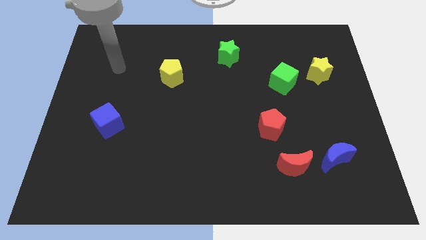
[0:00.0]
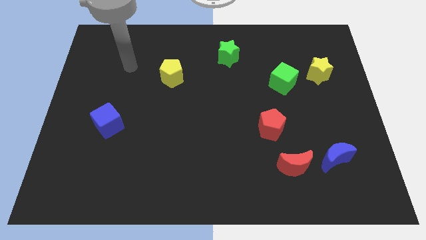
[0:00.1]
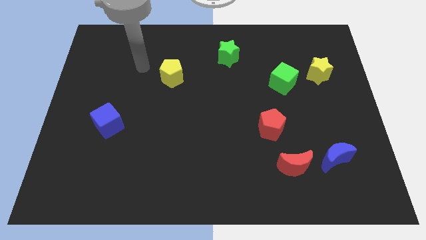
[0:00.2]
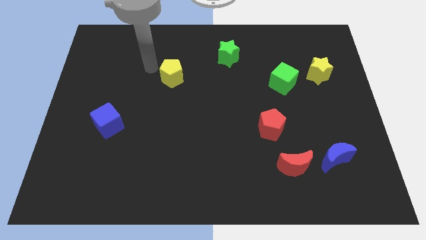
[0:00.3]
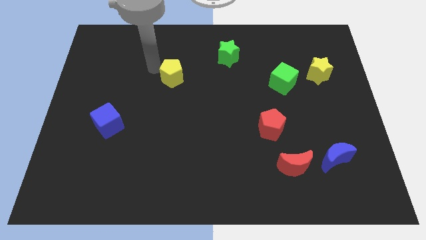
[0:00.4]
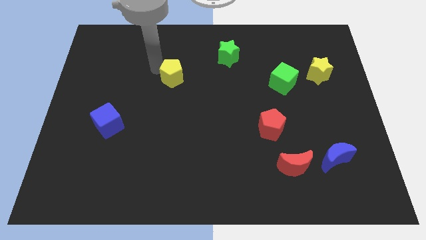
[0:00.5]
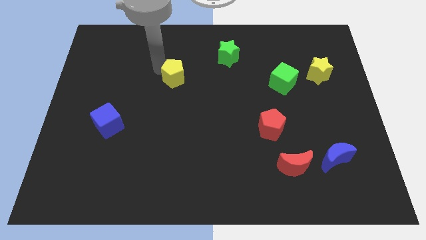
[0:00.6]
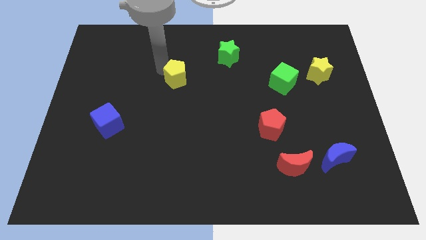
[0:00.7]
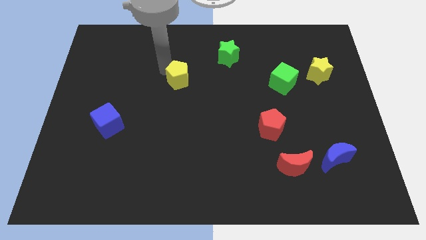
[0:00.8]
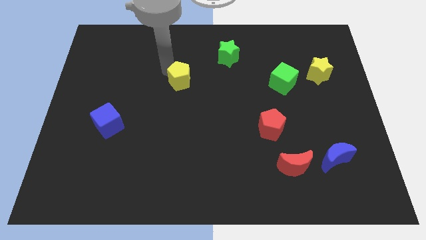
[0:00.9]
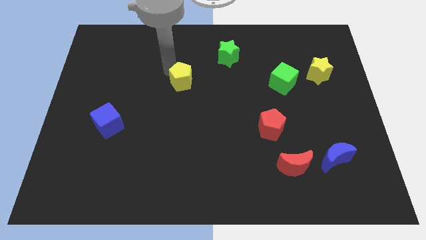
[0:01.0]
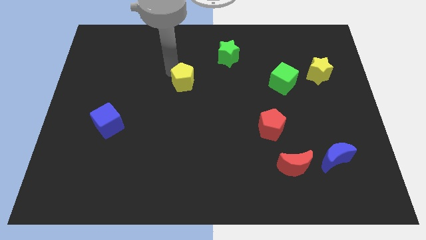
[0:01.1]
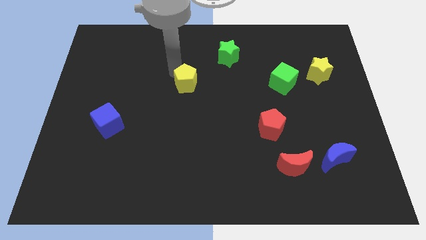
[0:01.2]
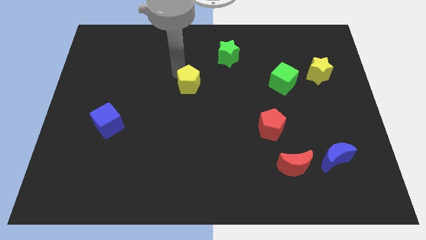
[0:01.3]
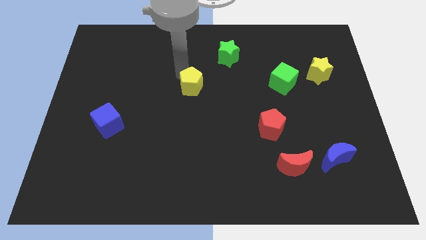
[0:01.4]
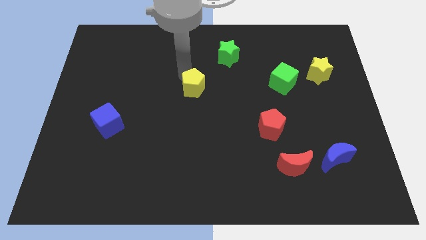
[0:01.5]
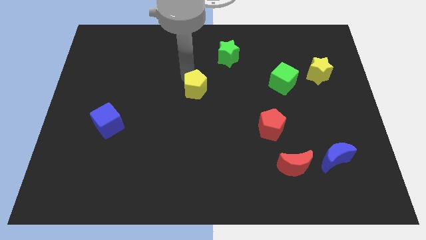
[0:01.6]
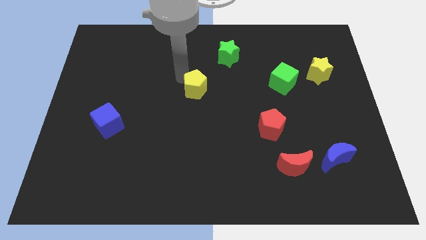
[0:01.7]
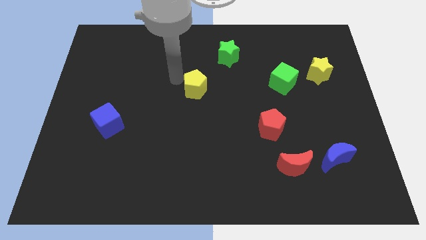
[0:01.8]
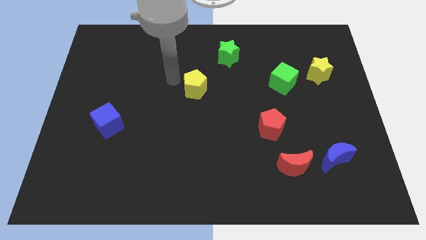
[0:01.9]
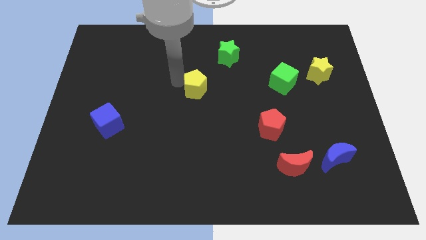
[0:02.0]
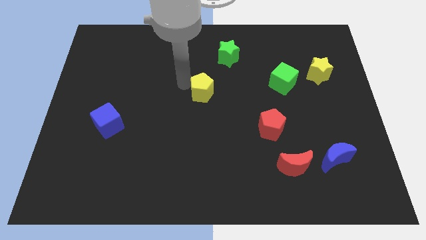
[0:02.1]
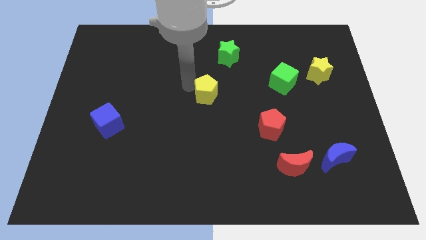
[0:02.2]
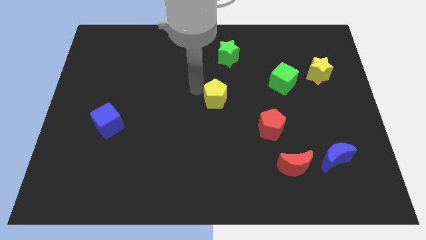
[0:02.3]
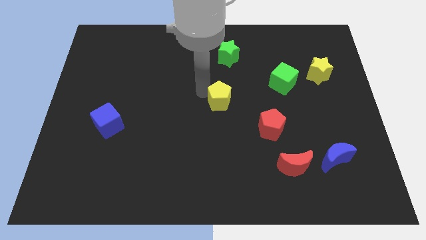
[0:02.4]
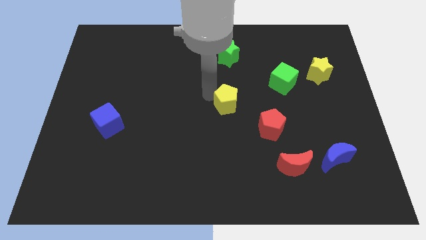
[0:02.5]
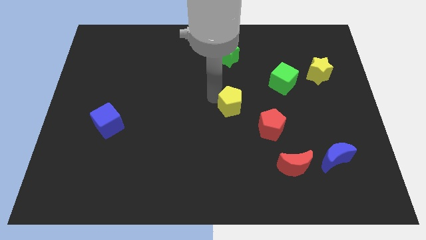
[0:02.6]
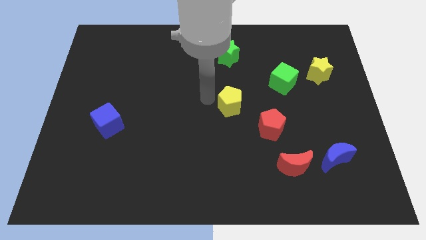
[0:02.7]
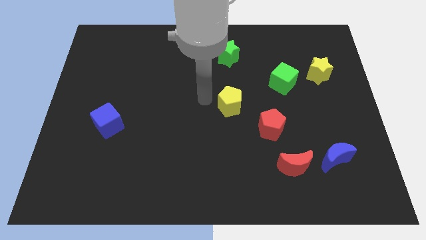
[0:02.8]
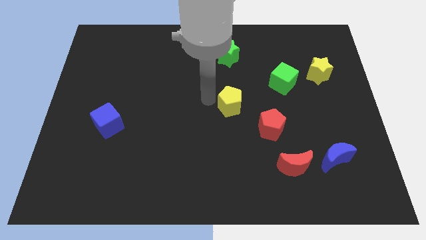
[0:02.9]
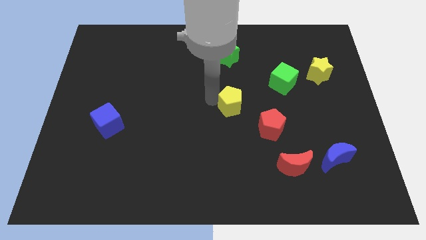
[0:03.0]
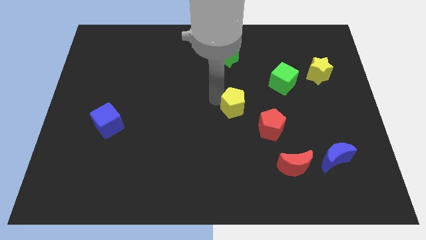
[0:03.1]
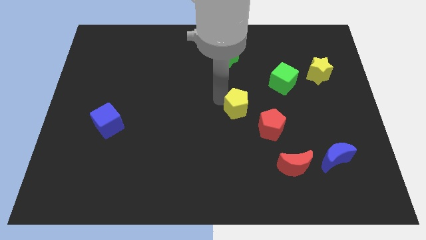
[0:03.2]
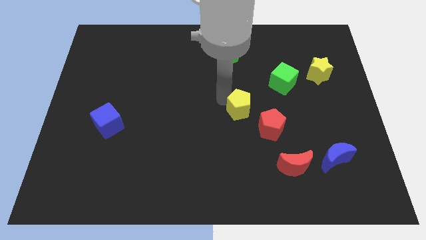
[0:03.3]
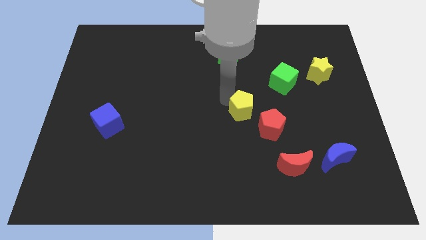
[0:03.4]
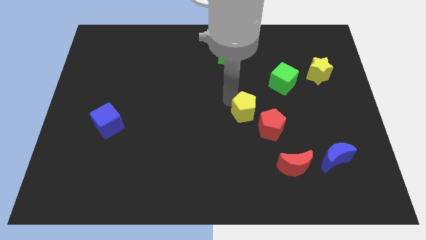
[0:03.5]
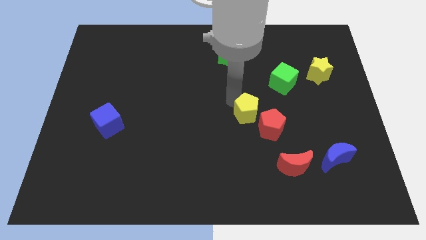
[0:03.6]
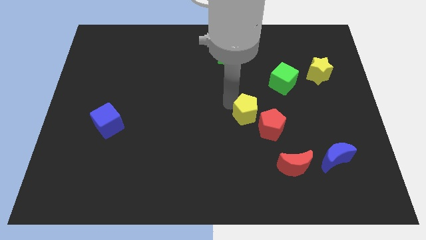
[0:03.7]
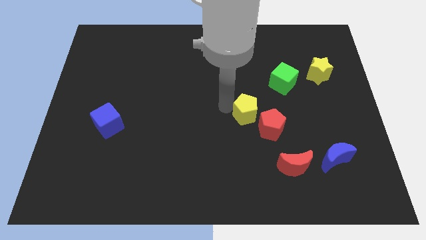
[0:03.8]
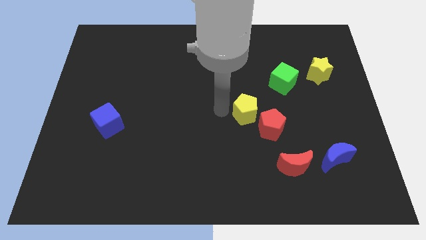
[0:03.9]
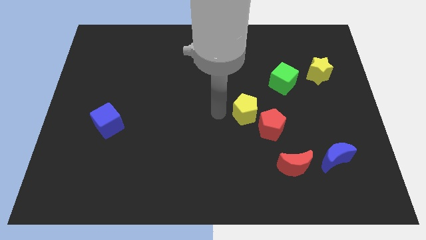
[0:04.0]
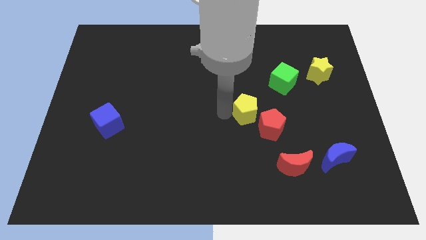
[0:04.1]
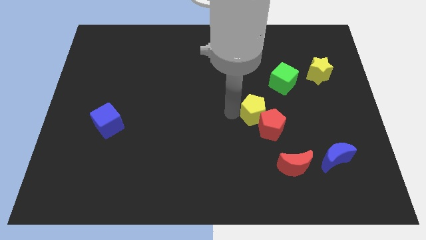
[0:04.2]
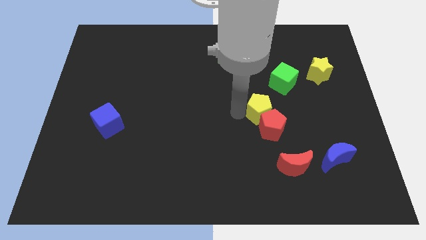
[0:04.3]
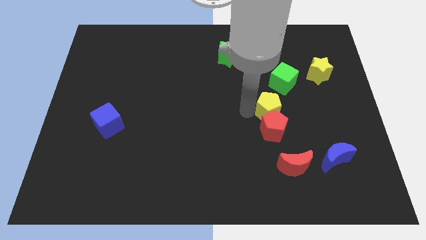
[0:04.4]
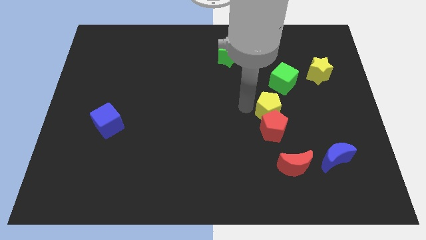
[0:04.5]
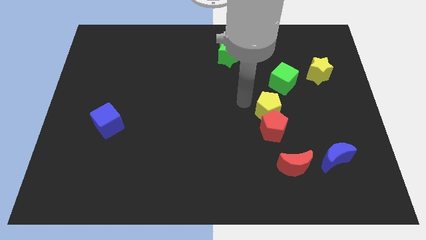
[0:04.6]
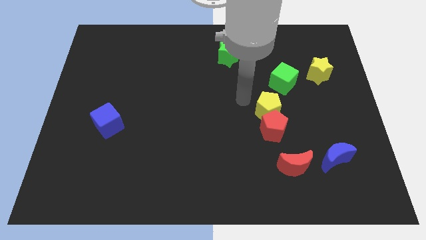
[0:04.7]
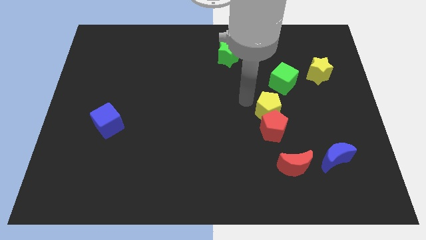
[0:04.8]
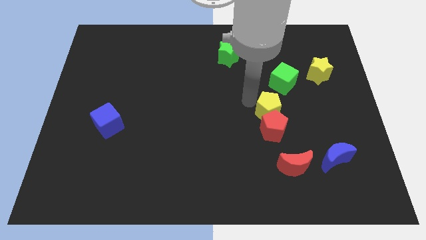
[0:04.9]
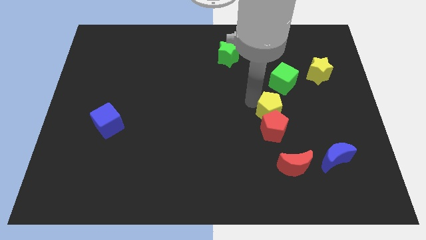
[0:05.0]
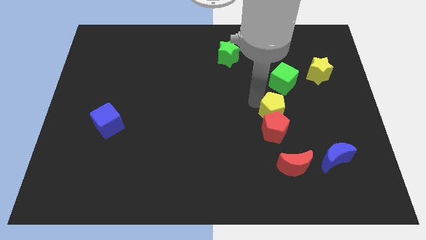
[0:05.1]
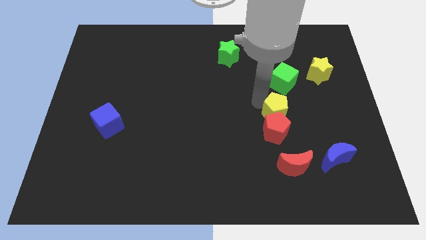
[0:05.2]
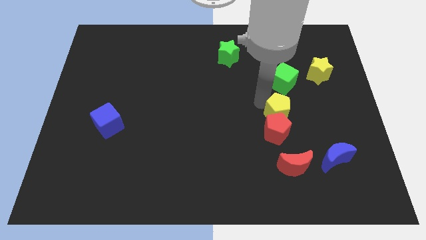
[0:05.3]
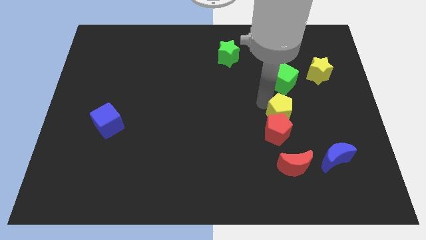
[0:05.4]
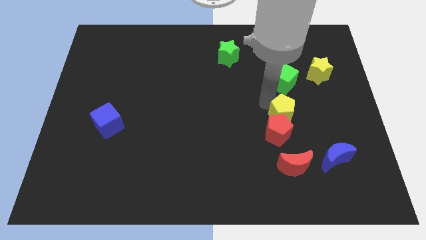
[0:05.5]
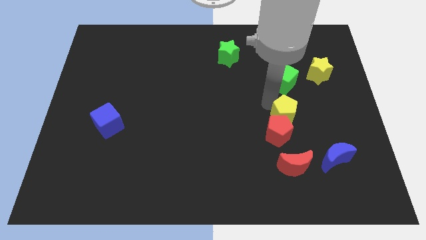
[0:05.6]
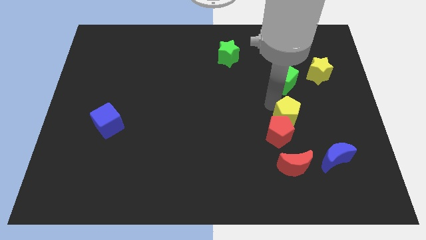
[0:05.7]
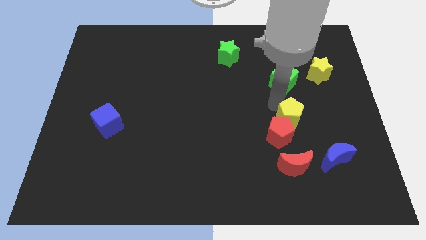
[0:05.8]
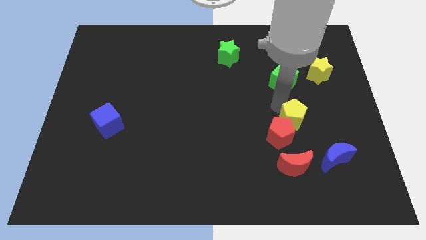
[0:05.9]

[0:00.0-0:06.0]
put the yellow pentagon diagonally up and to the left of the blue moon

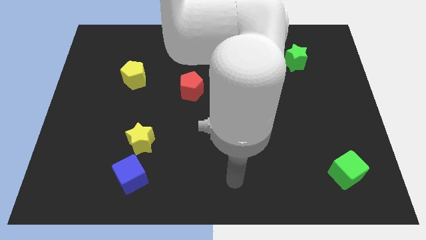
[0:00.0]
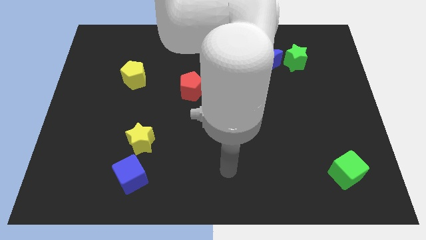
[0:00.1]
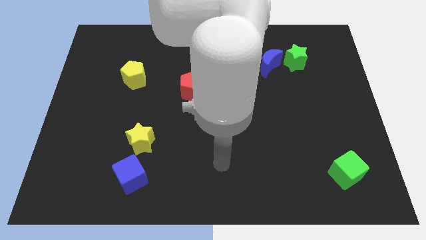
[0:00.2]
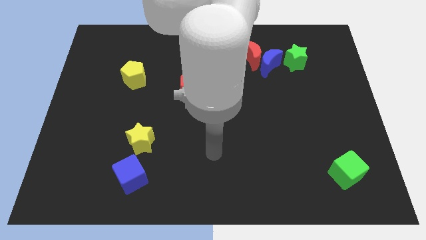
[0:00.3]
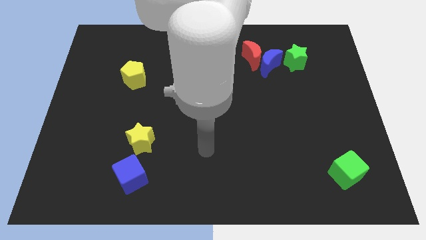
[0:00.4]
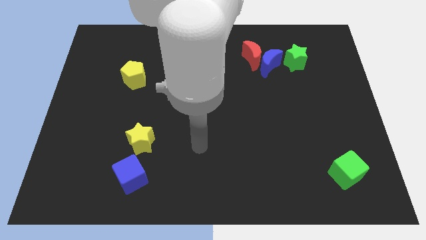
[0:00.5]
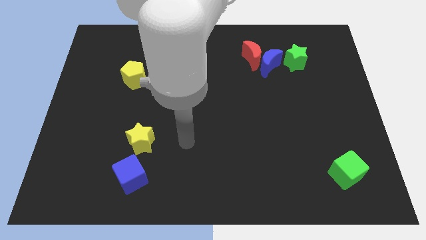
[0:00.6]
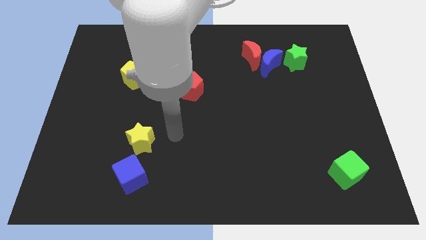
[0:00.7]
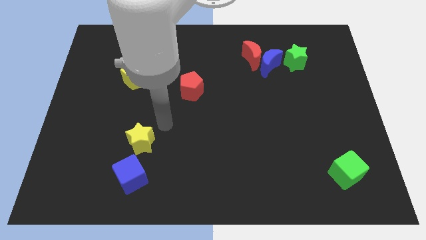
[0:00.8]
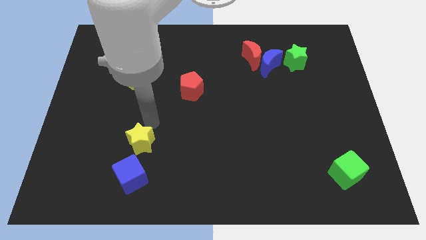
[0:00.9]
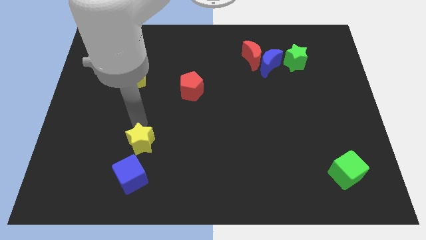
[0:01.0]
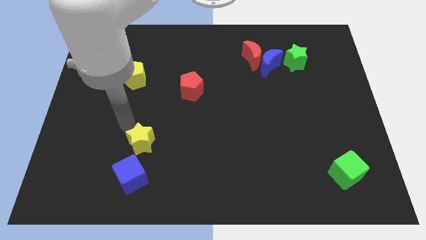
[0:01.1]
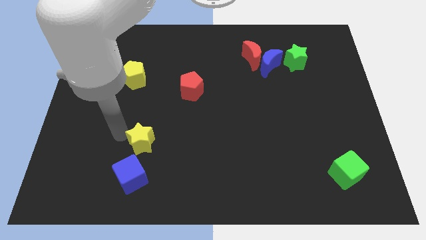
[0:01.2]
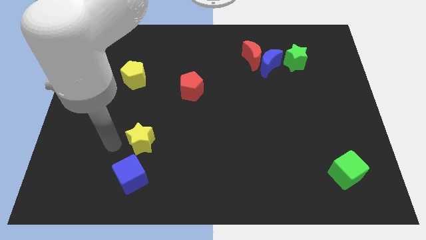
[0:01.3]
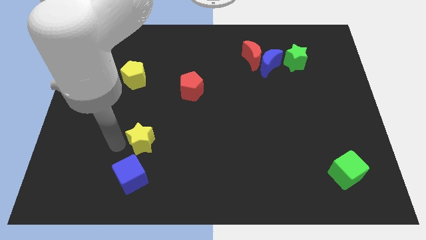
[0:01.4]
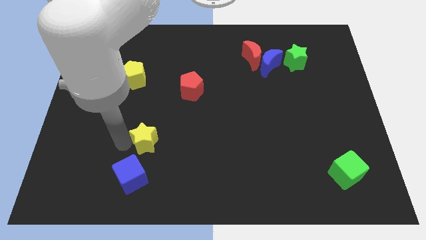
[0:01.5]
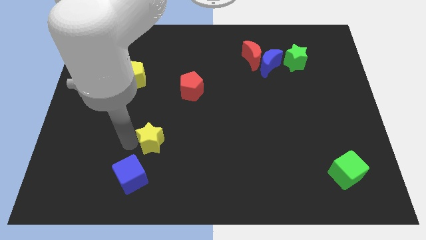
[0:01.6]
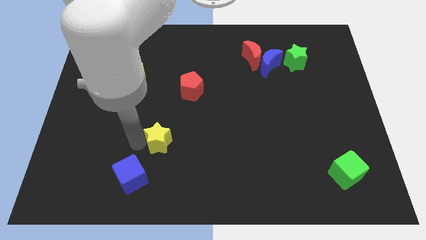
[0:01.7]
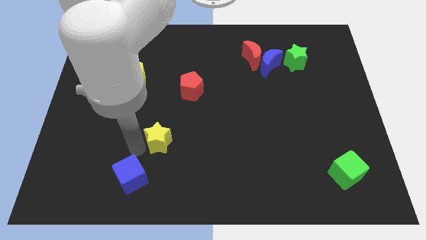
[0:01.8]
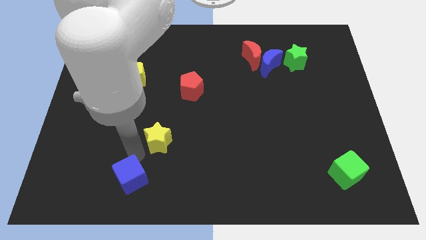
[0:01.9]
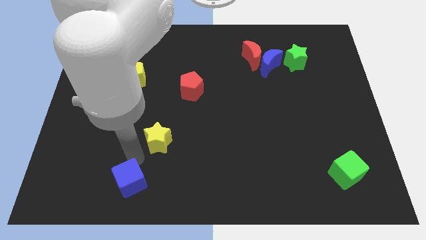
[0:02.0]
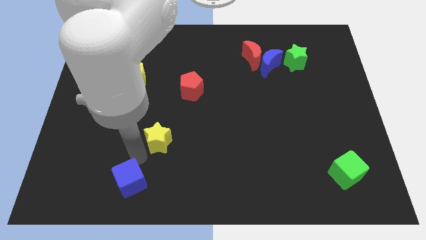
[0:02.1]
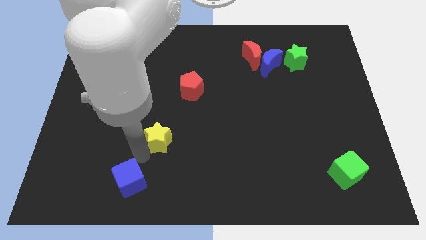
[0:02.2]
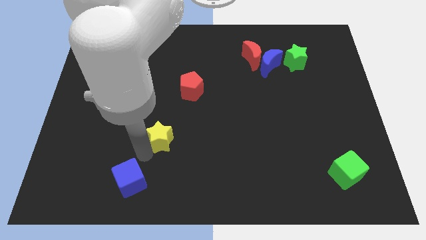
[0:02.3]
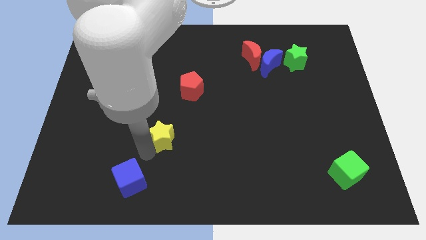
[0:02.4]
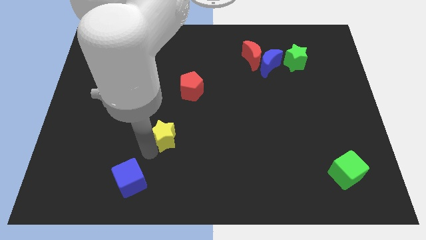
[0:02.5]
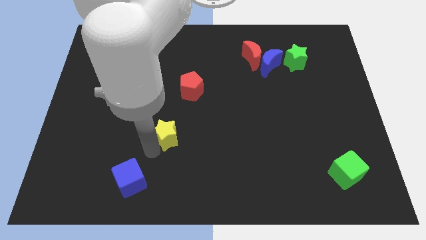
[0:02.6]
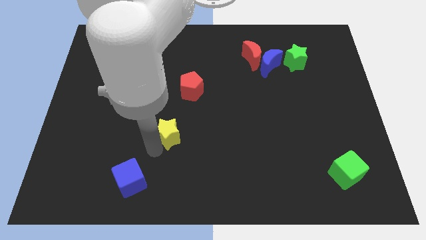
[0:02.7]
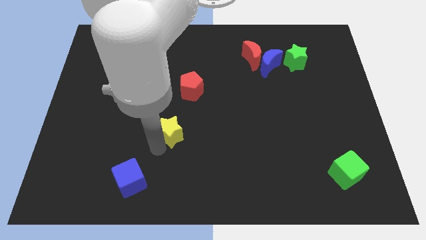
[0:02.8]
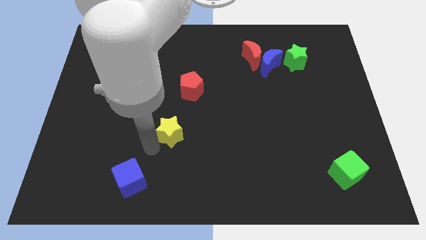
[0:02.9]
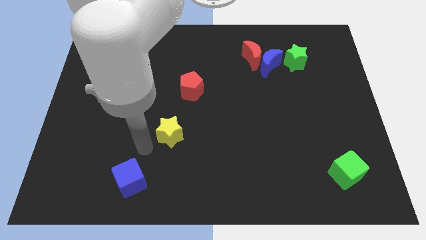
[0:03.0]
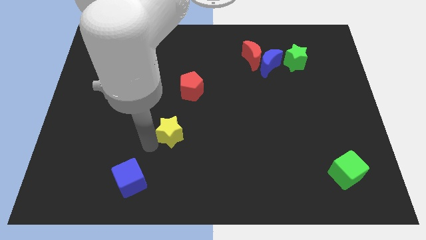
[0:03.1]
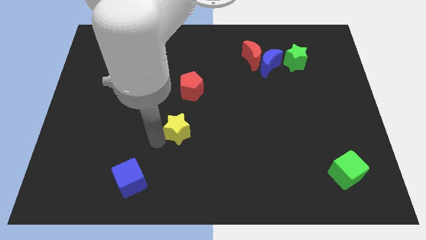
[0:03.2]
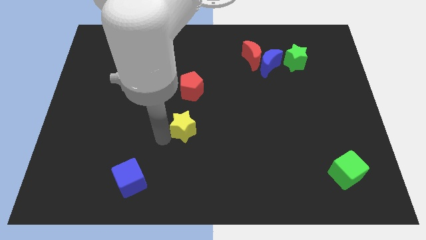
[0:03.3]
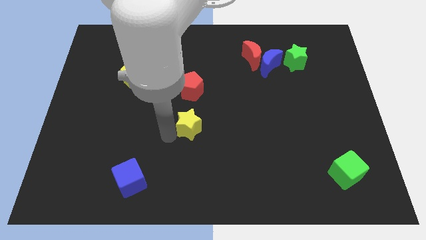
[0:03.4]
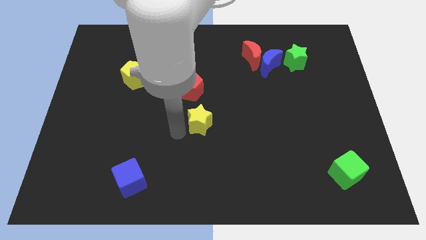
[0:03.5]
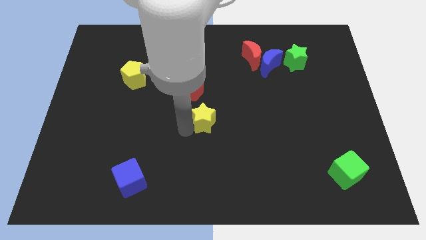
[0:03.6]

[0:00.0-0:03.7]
put the yellow star to the bottom right side of the red pentagon
